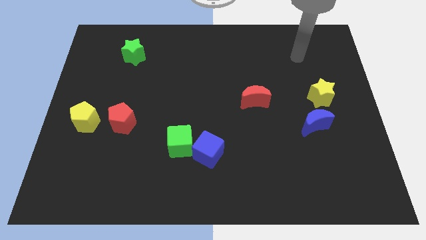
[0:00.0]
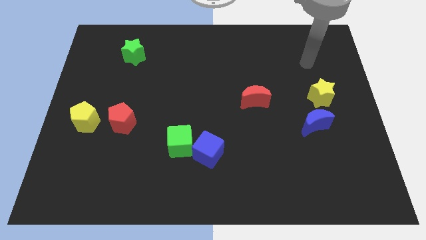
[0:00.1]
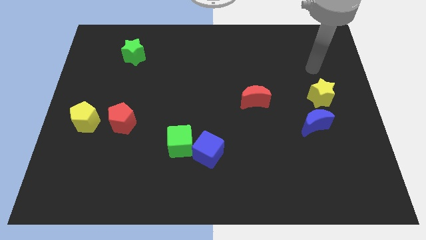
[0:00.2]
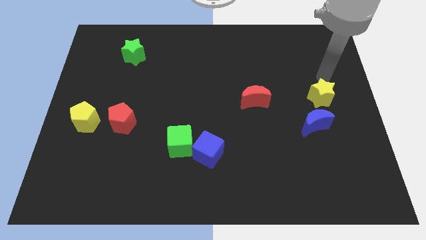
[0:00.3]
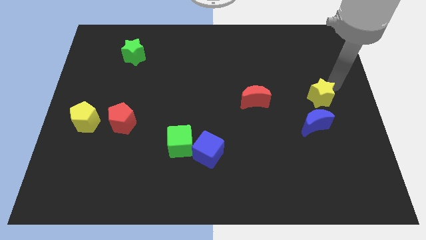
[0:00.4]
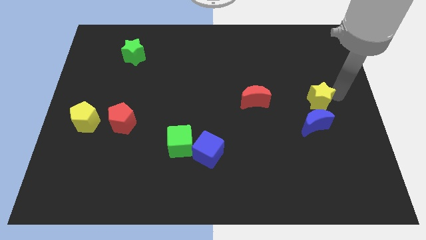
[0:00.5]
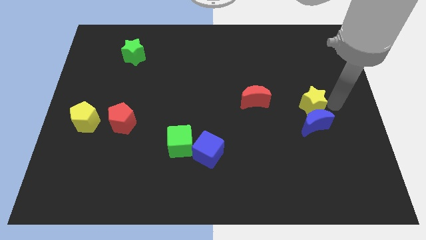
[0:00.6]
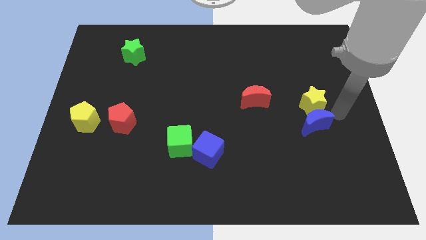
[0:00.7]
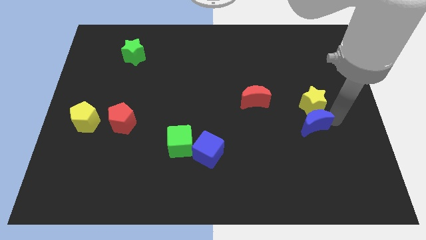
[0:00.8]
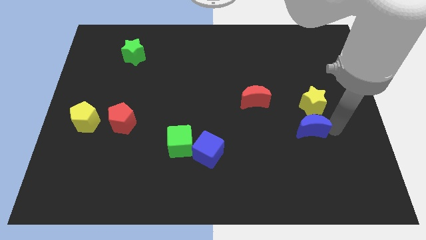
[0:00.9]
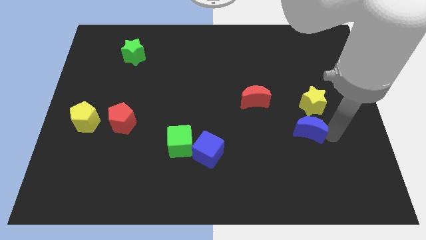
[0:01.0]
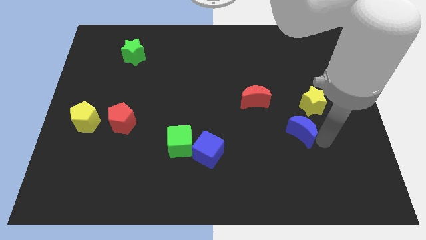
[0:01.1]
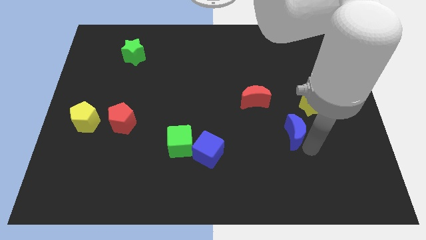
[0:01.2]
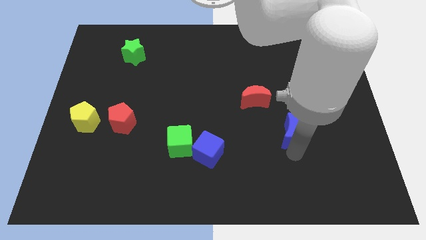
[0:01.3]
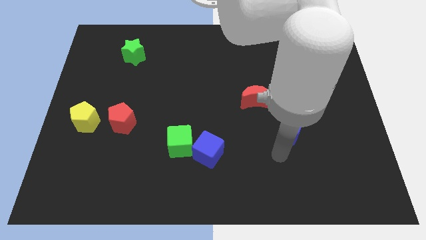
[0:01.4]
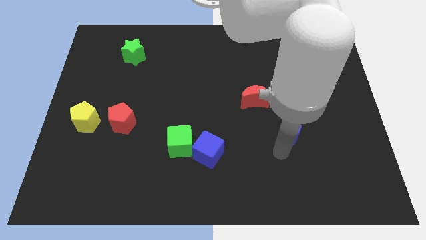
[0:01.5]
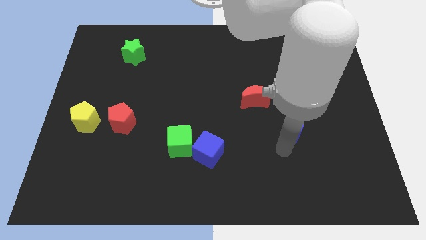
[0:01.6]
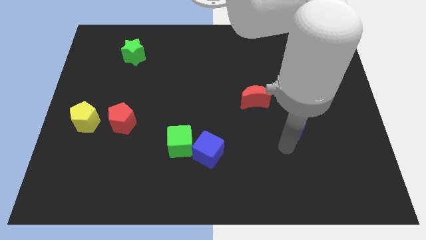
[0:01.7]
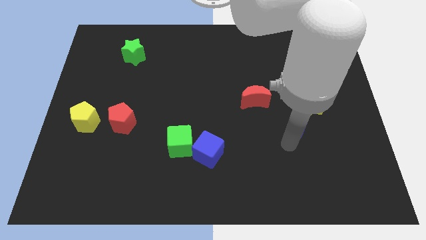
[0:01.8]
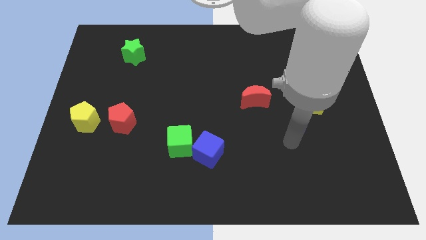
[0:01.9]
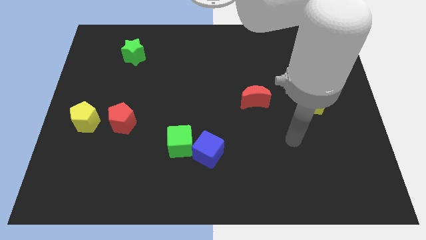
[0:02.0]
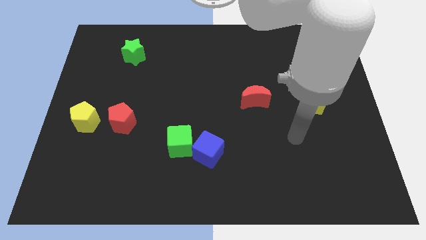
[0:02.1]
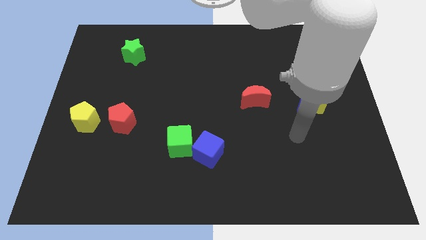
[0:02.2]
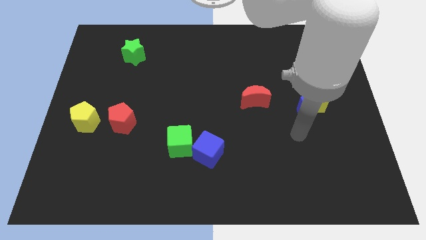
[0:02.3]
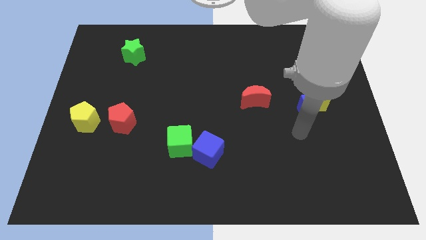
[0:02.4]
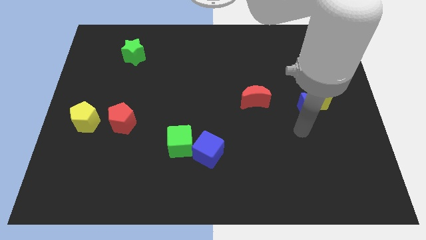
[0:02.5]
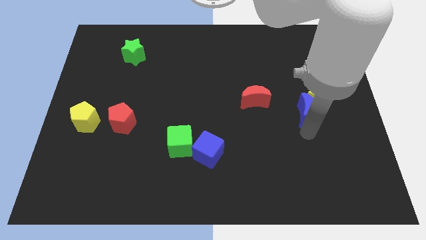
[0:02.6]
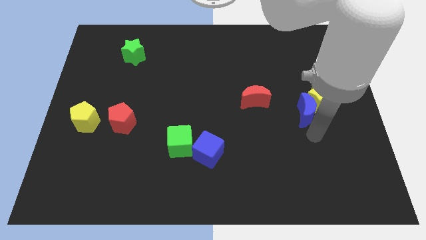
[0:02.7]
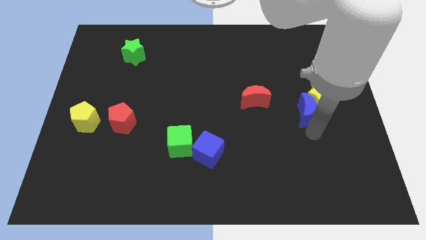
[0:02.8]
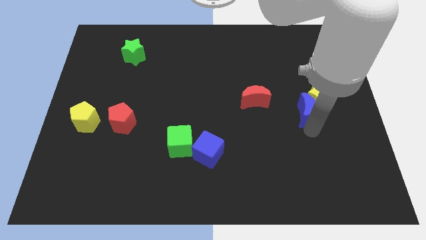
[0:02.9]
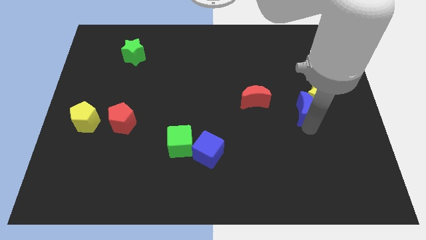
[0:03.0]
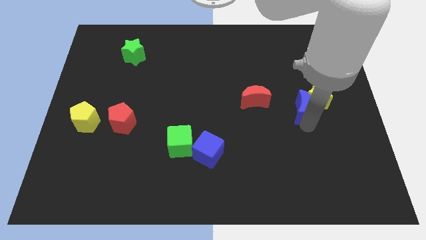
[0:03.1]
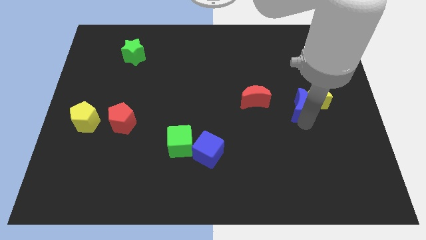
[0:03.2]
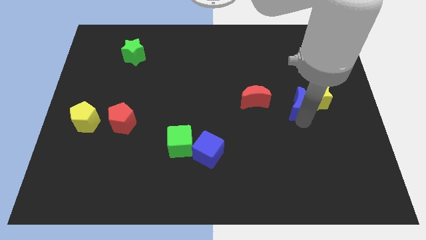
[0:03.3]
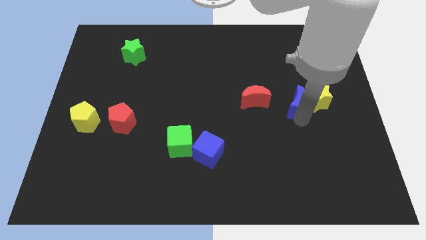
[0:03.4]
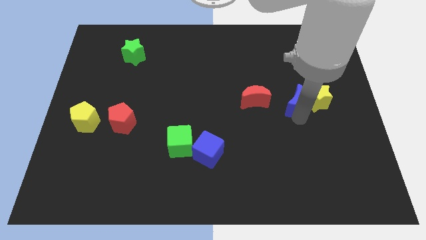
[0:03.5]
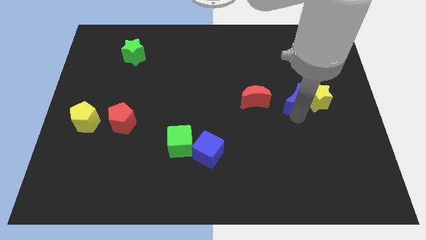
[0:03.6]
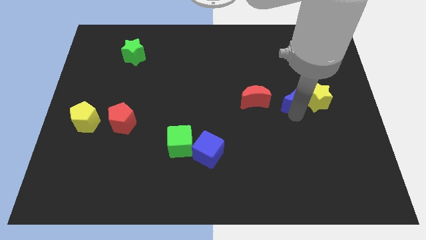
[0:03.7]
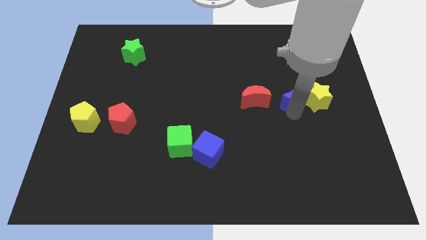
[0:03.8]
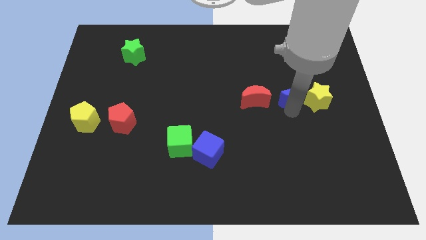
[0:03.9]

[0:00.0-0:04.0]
move the blue moon upwards somewhat

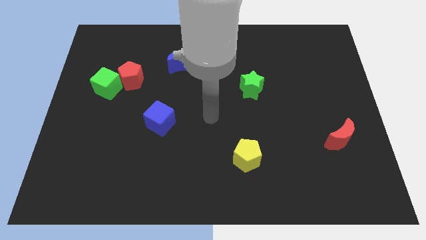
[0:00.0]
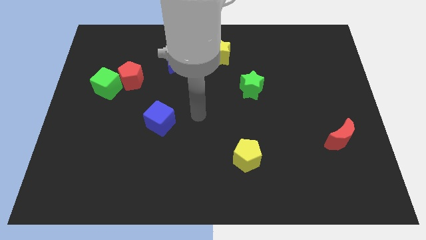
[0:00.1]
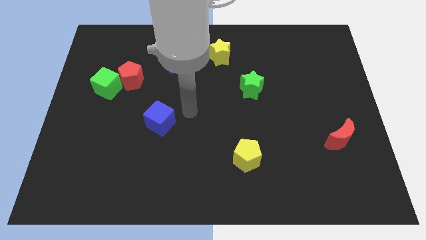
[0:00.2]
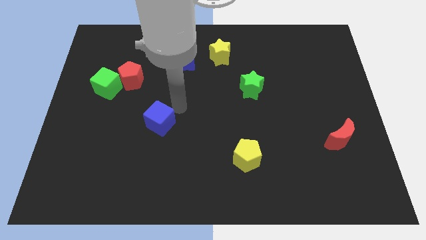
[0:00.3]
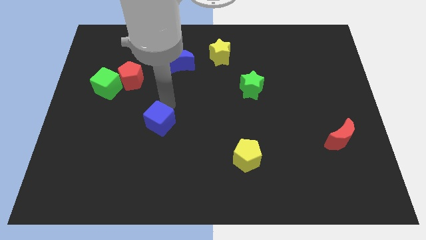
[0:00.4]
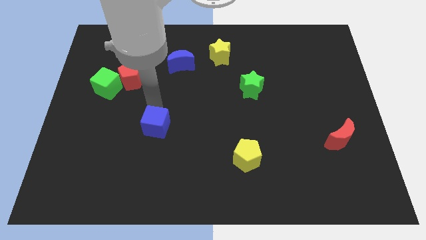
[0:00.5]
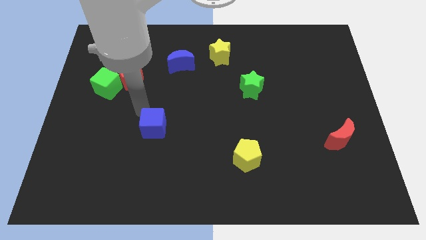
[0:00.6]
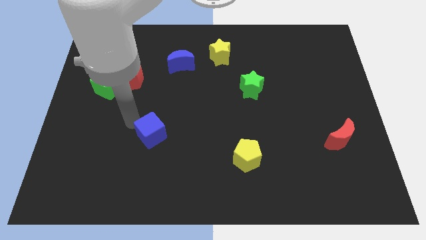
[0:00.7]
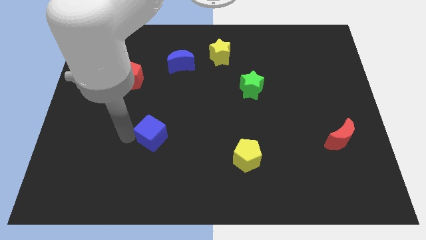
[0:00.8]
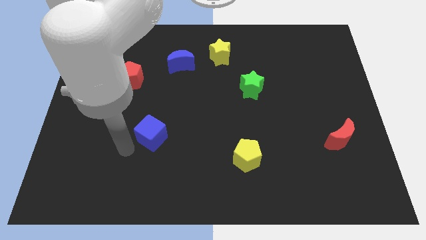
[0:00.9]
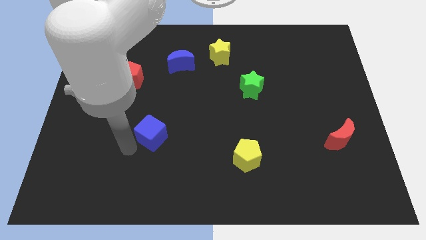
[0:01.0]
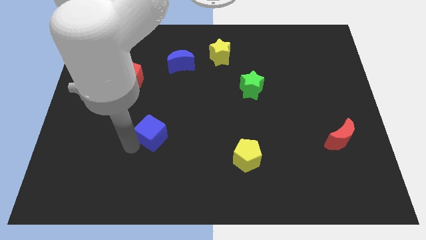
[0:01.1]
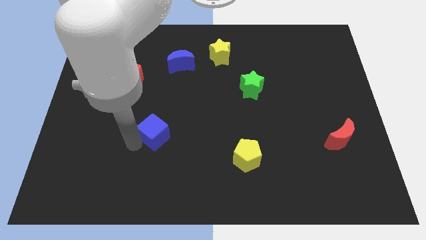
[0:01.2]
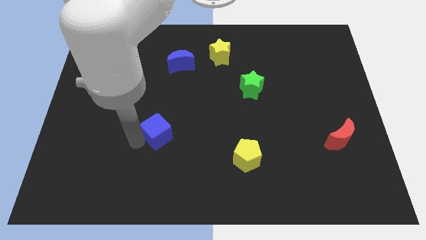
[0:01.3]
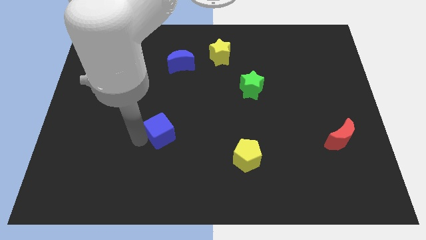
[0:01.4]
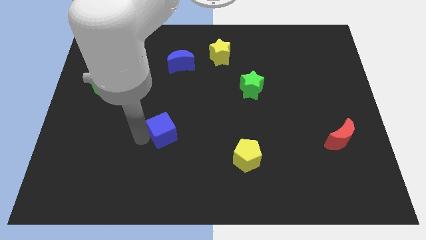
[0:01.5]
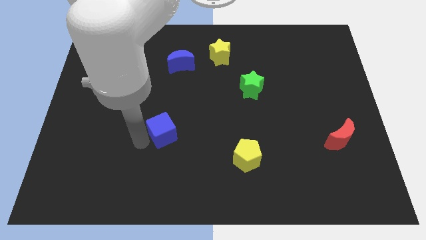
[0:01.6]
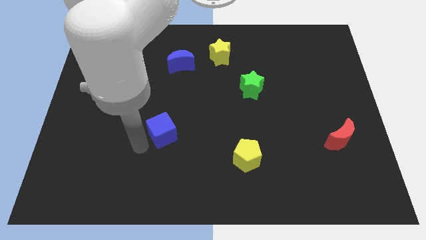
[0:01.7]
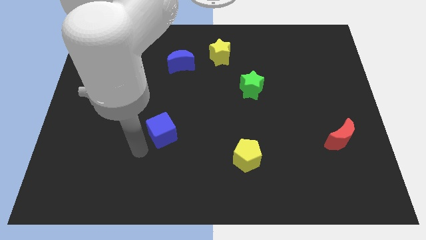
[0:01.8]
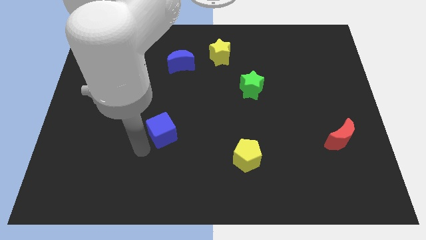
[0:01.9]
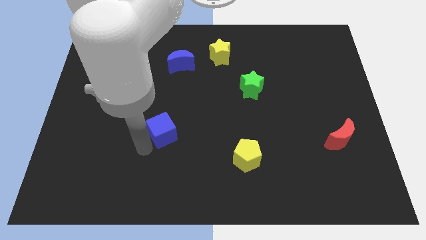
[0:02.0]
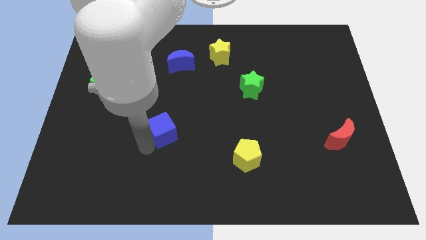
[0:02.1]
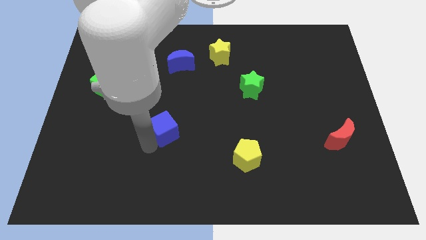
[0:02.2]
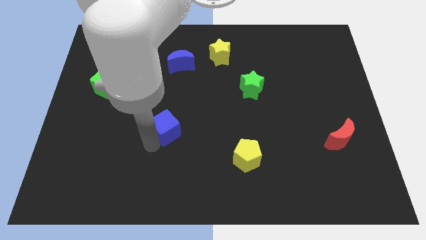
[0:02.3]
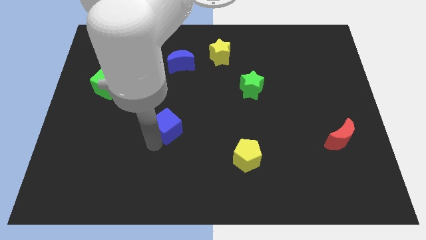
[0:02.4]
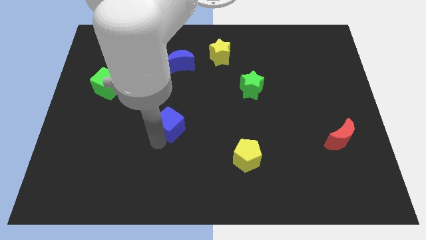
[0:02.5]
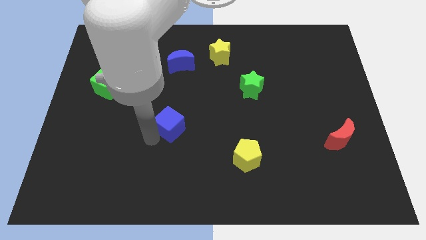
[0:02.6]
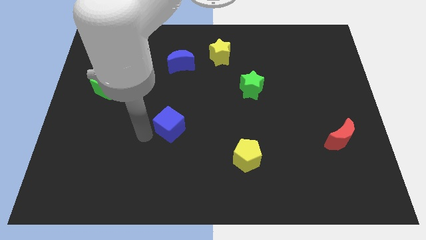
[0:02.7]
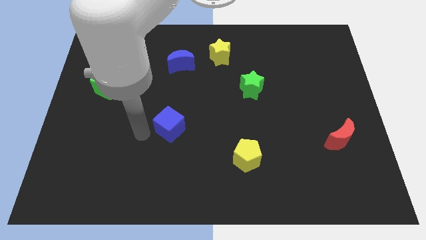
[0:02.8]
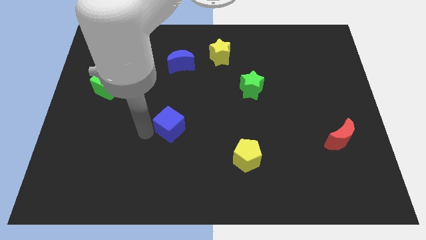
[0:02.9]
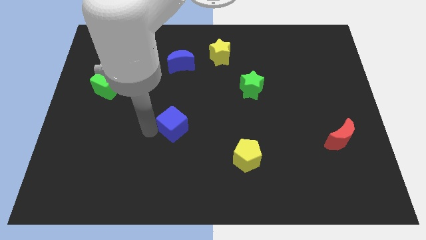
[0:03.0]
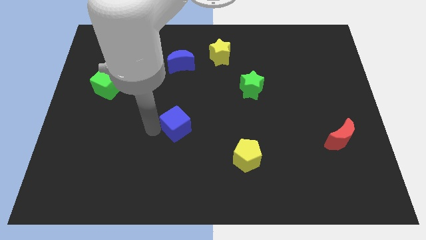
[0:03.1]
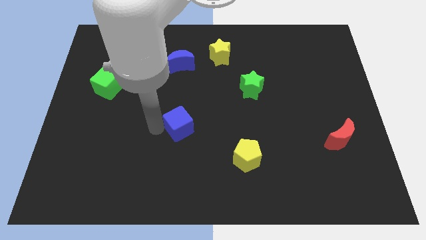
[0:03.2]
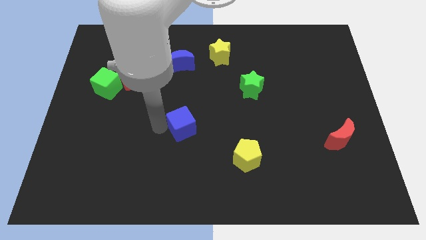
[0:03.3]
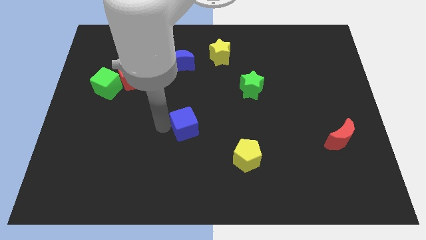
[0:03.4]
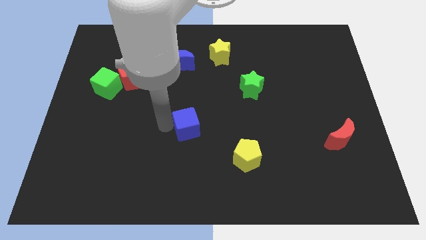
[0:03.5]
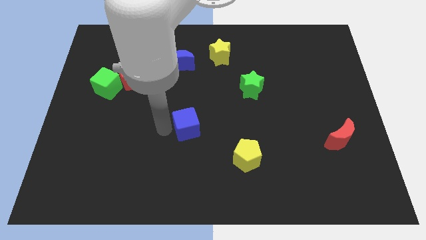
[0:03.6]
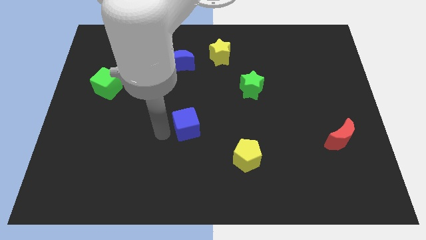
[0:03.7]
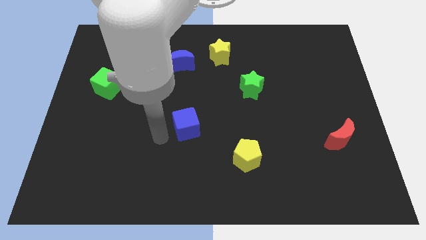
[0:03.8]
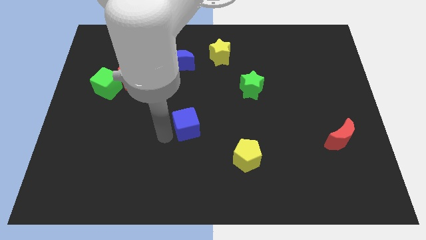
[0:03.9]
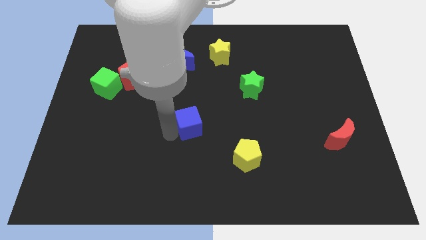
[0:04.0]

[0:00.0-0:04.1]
move the blue cube to the right a little
